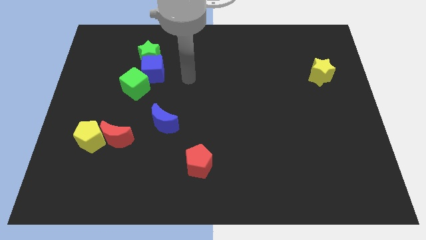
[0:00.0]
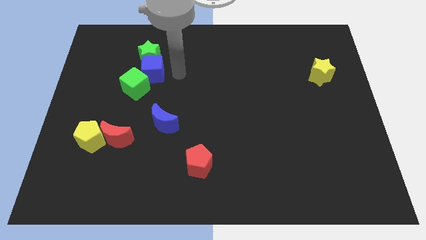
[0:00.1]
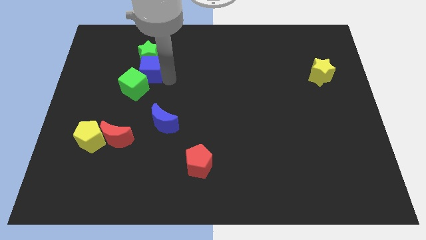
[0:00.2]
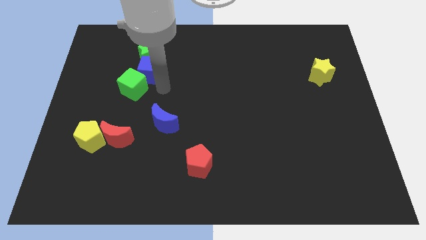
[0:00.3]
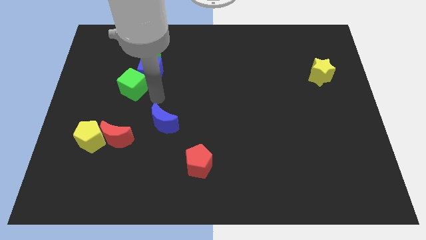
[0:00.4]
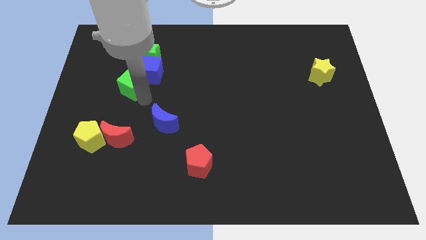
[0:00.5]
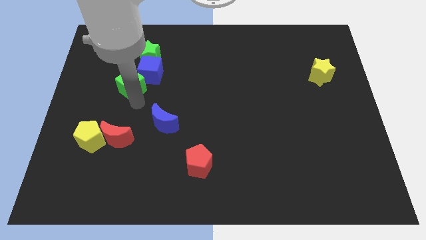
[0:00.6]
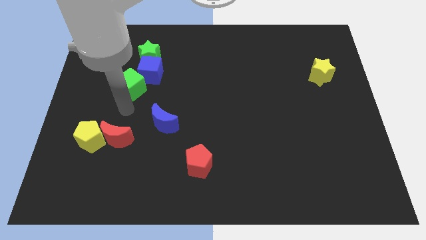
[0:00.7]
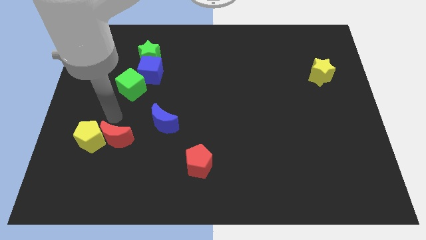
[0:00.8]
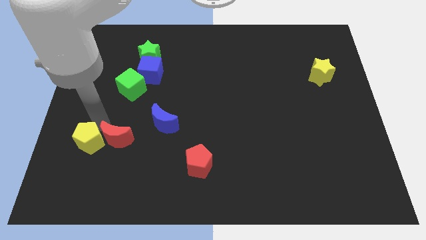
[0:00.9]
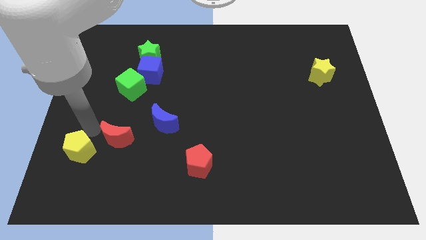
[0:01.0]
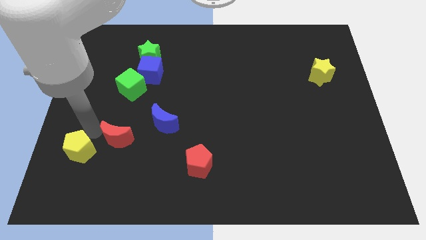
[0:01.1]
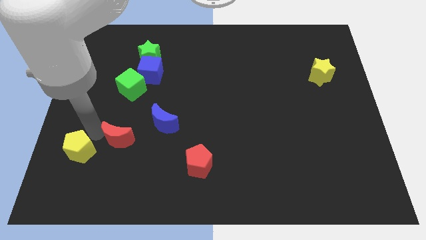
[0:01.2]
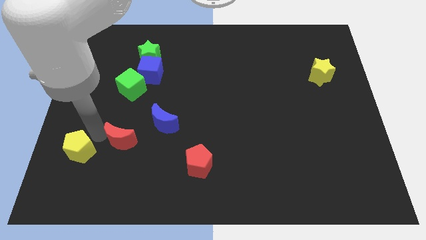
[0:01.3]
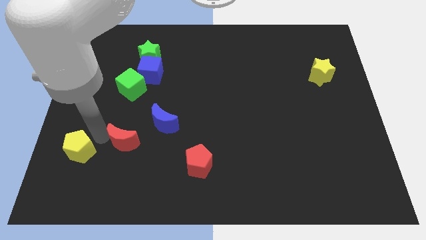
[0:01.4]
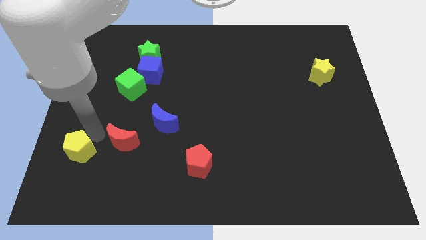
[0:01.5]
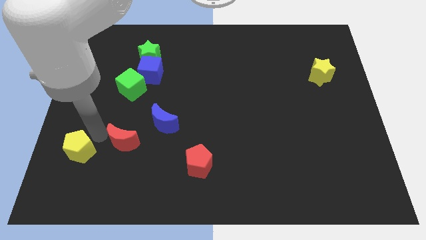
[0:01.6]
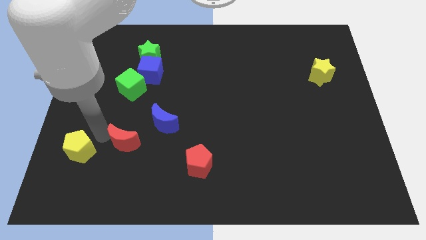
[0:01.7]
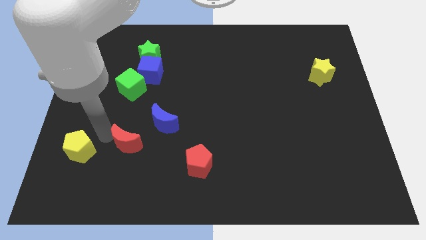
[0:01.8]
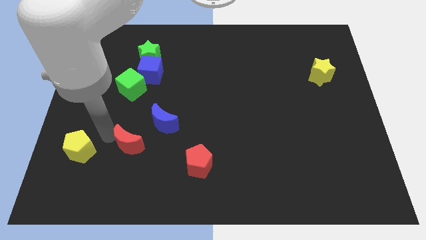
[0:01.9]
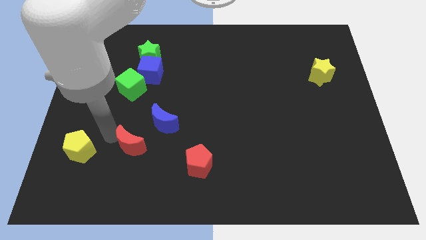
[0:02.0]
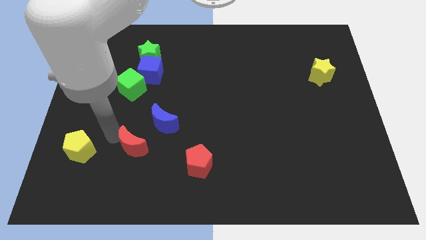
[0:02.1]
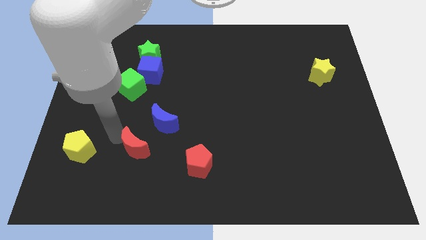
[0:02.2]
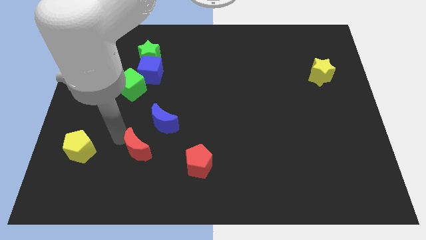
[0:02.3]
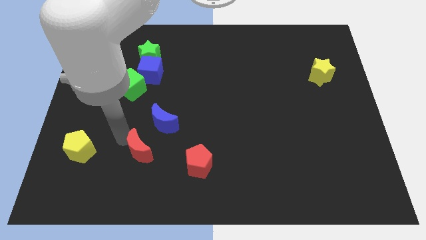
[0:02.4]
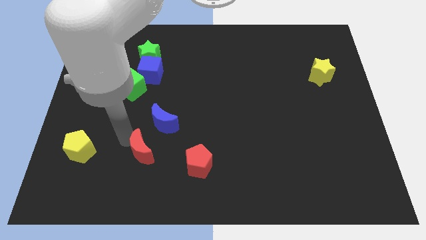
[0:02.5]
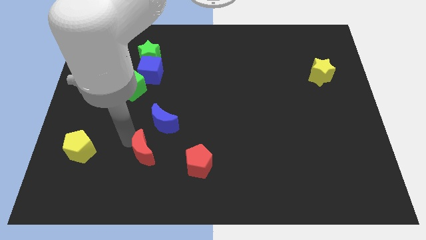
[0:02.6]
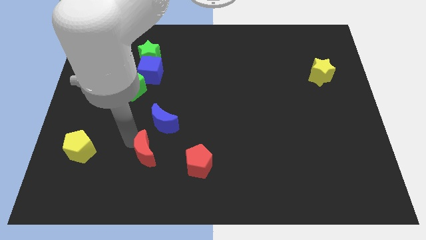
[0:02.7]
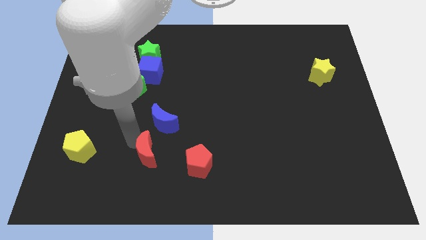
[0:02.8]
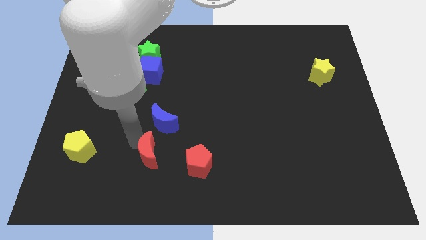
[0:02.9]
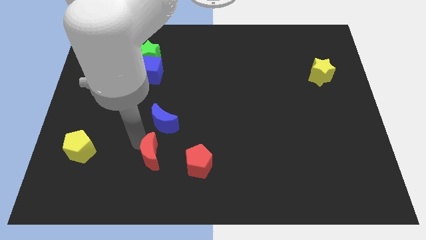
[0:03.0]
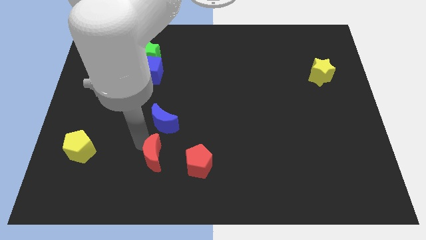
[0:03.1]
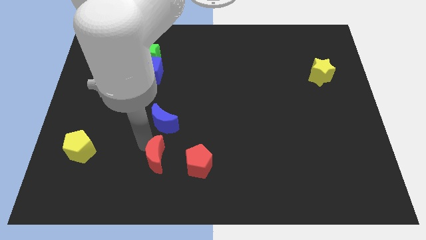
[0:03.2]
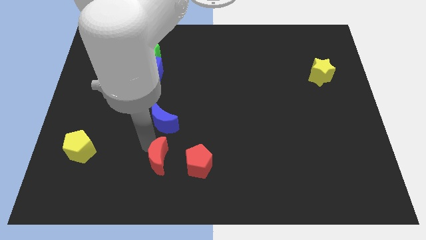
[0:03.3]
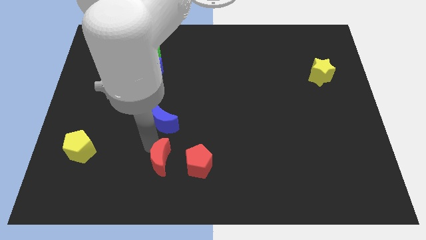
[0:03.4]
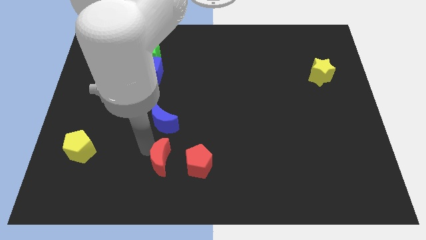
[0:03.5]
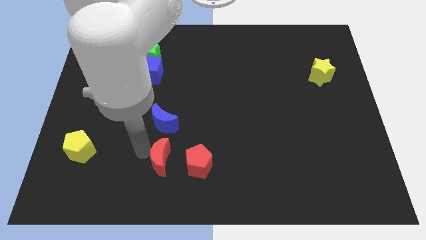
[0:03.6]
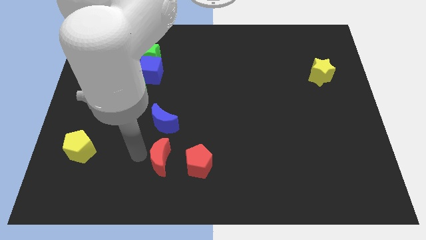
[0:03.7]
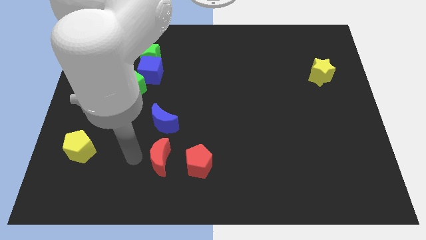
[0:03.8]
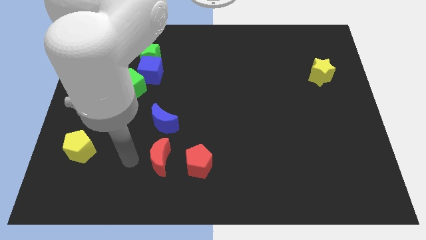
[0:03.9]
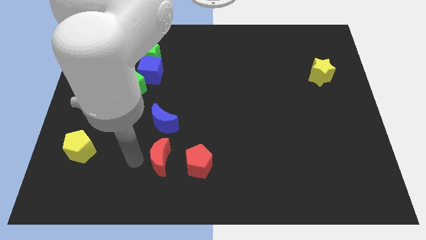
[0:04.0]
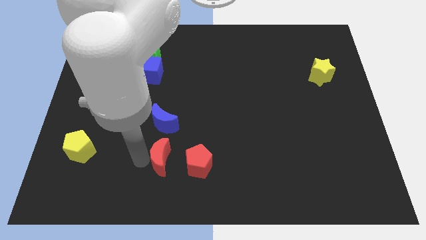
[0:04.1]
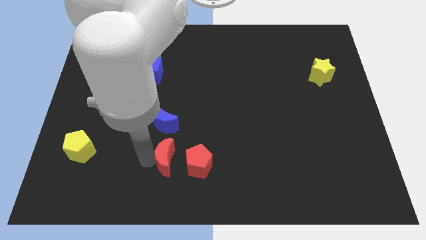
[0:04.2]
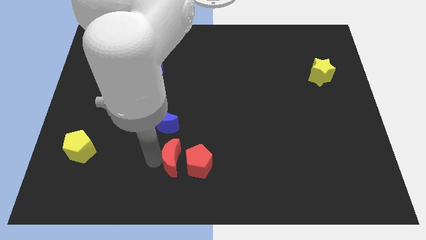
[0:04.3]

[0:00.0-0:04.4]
slide the red moon towards the red pentagon

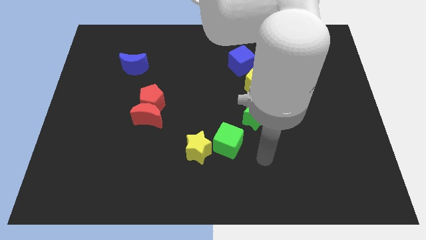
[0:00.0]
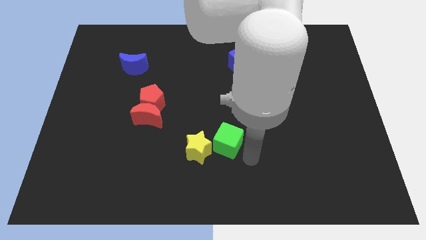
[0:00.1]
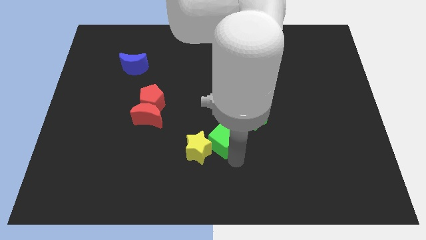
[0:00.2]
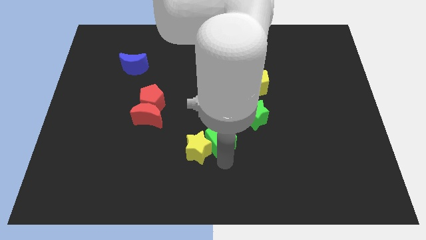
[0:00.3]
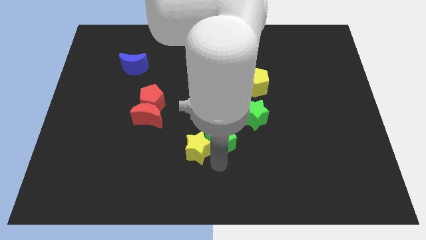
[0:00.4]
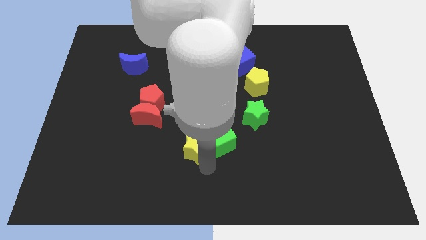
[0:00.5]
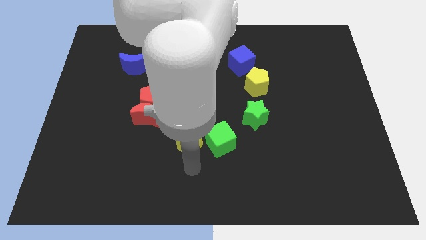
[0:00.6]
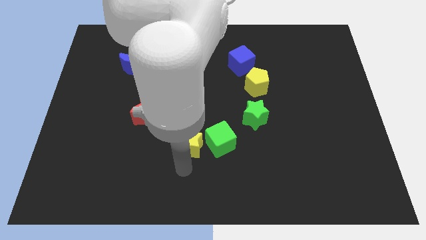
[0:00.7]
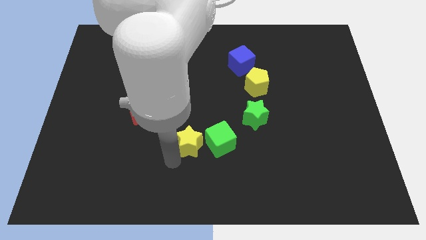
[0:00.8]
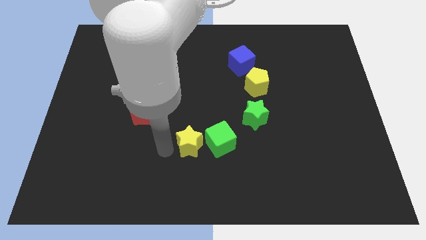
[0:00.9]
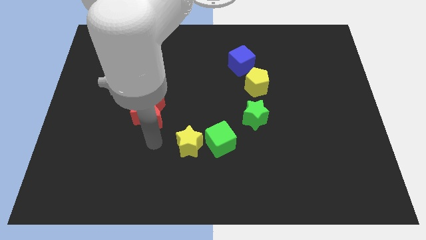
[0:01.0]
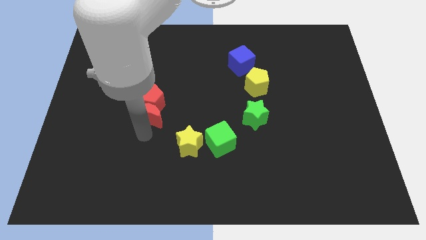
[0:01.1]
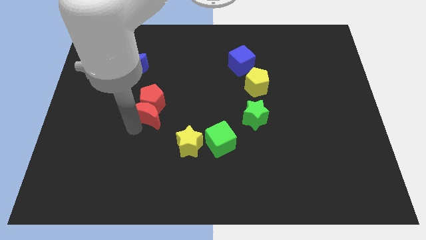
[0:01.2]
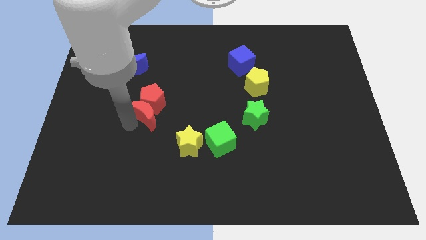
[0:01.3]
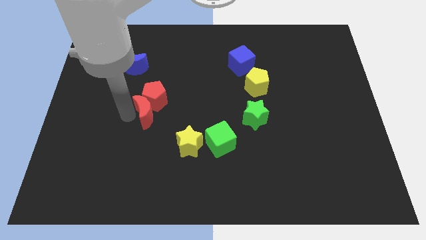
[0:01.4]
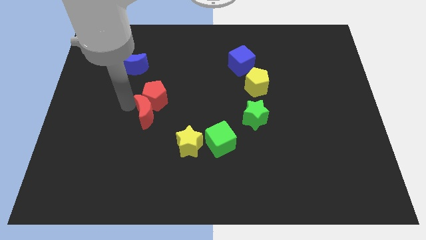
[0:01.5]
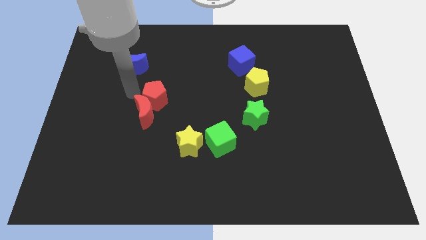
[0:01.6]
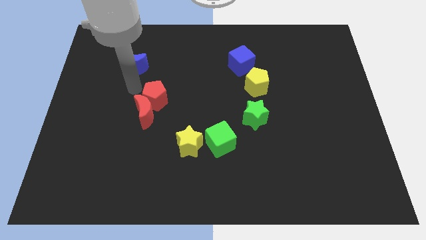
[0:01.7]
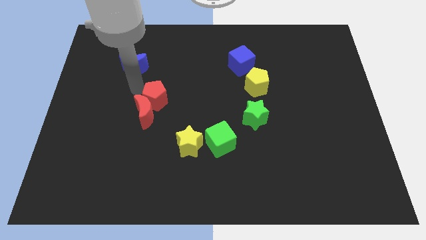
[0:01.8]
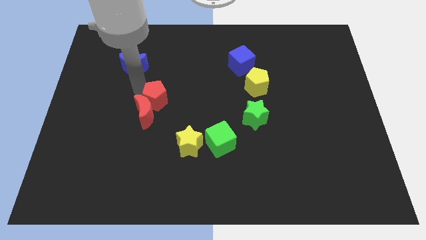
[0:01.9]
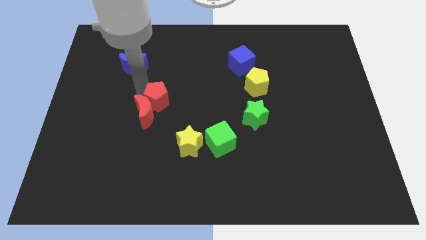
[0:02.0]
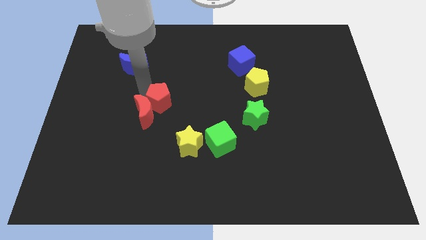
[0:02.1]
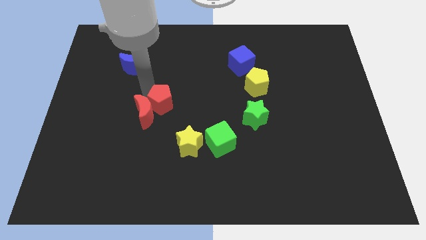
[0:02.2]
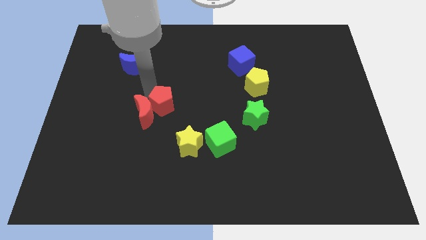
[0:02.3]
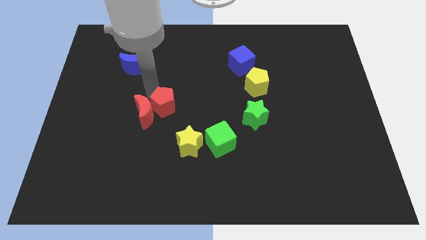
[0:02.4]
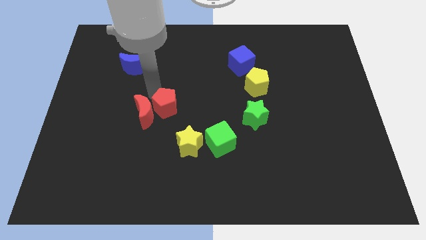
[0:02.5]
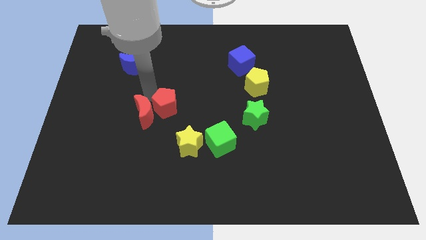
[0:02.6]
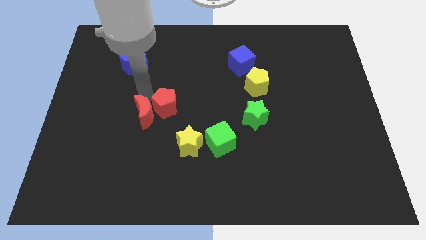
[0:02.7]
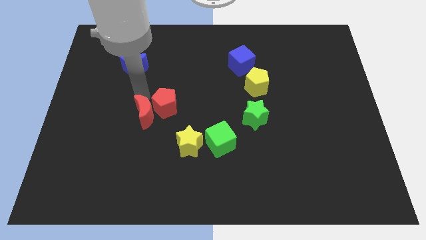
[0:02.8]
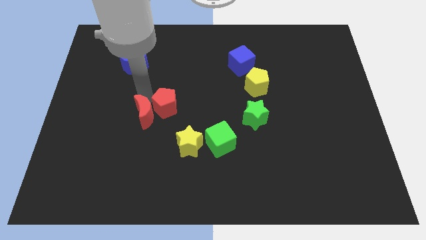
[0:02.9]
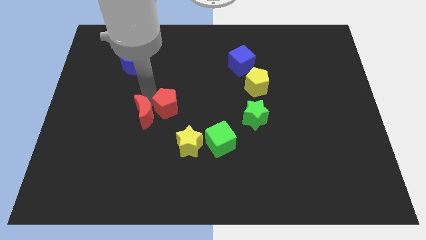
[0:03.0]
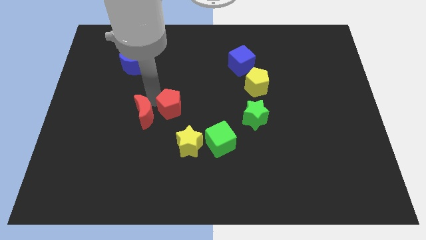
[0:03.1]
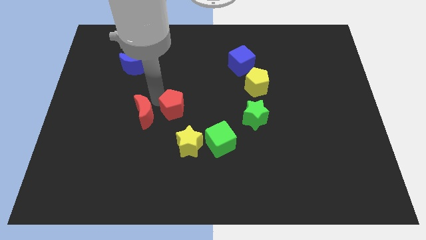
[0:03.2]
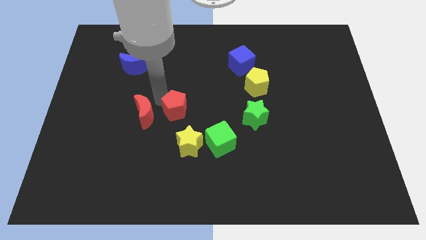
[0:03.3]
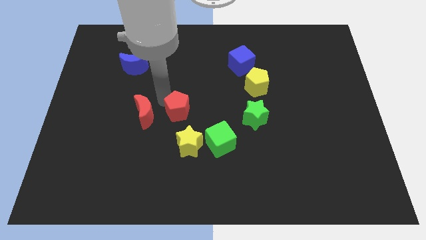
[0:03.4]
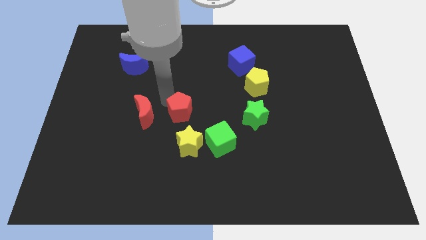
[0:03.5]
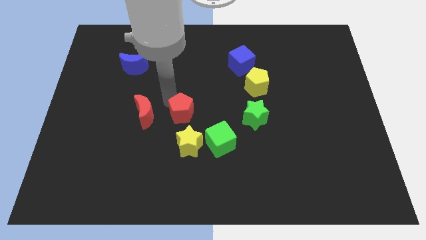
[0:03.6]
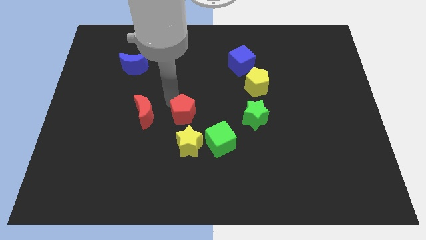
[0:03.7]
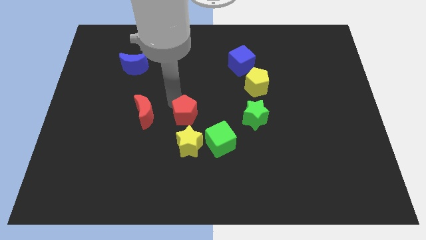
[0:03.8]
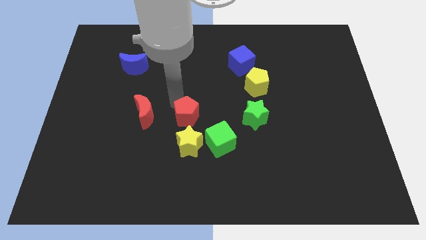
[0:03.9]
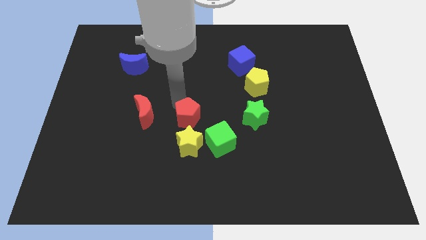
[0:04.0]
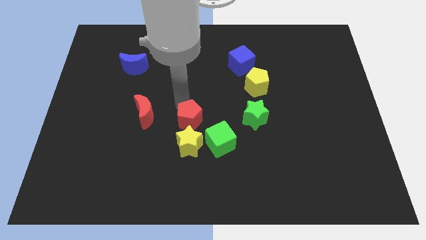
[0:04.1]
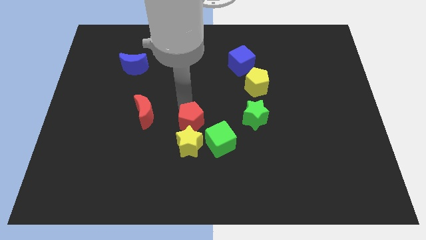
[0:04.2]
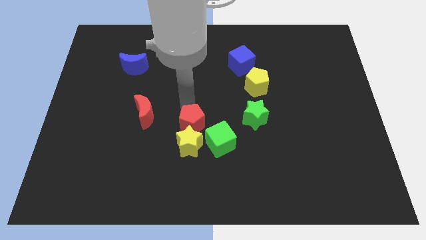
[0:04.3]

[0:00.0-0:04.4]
push the red pentagon towards the yellow star
